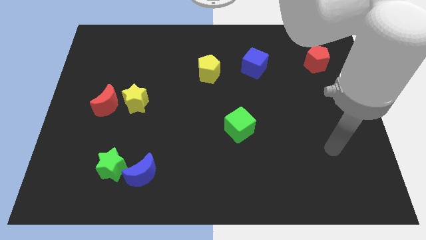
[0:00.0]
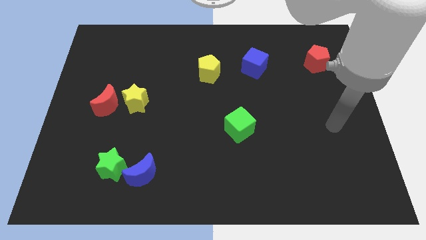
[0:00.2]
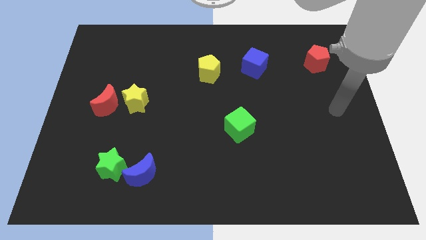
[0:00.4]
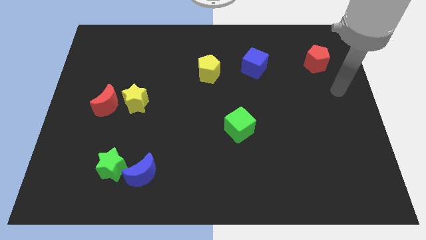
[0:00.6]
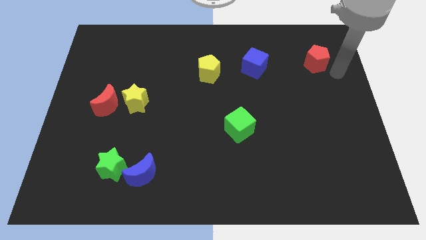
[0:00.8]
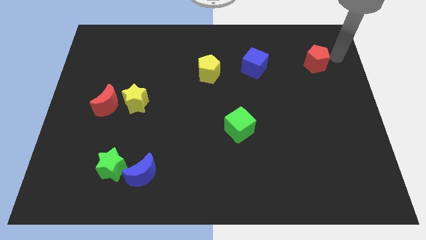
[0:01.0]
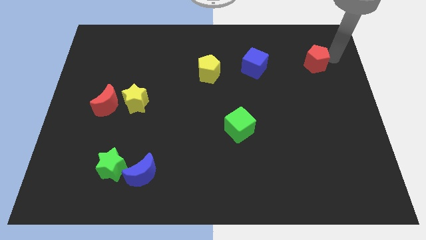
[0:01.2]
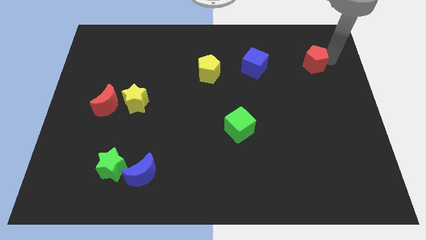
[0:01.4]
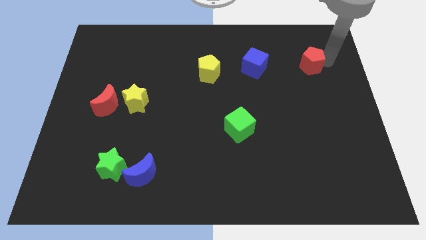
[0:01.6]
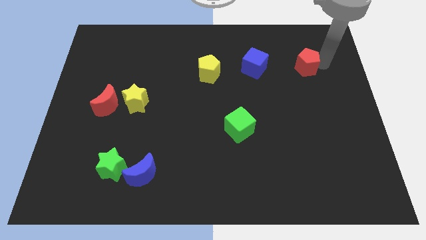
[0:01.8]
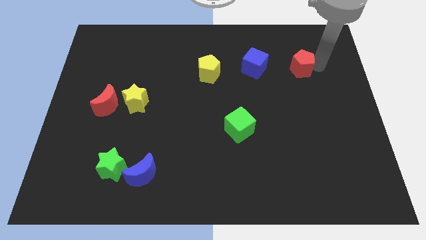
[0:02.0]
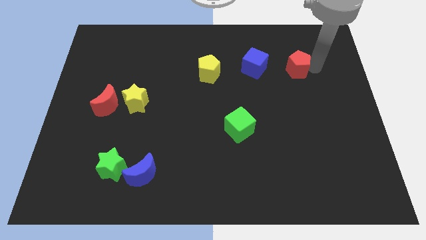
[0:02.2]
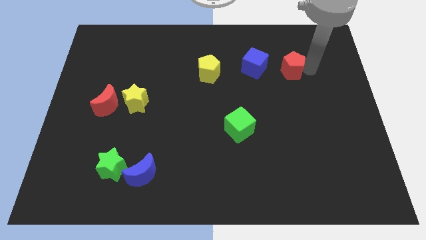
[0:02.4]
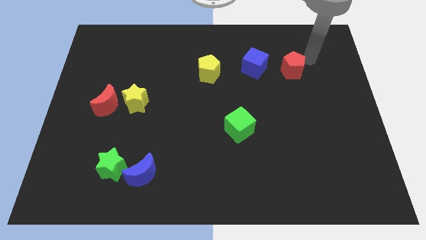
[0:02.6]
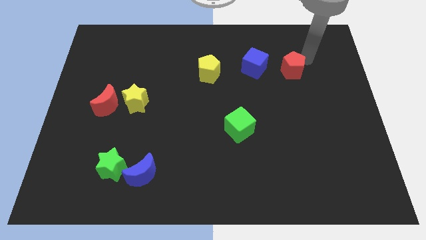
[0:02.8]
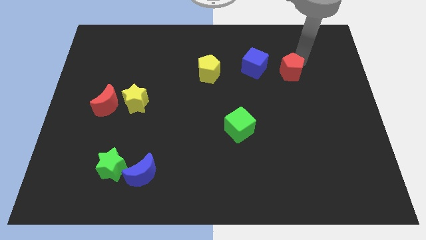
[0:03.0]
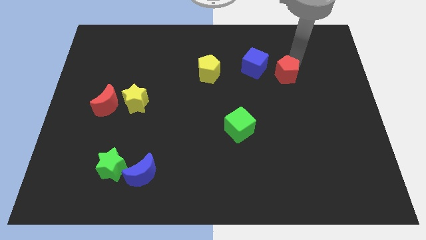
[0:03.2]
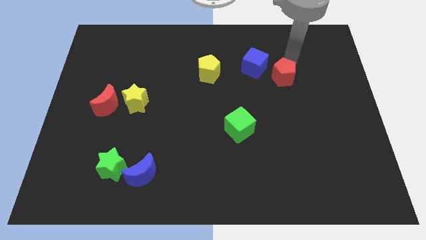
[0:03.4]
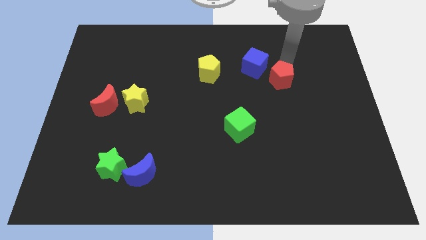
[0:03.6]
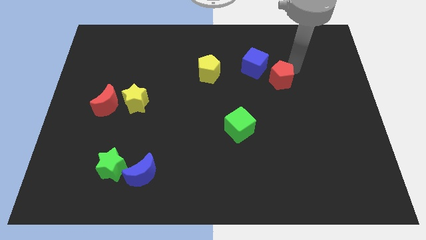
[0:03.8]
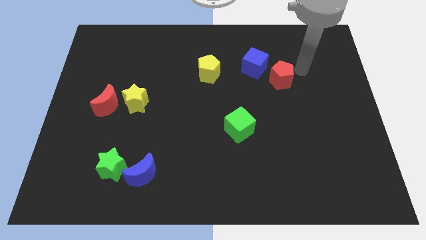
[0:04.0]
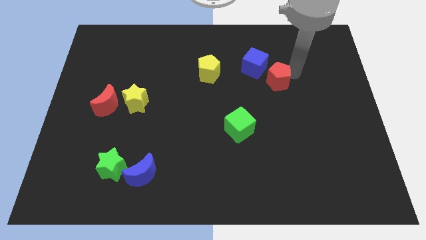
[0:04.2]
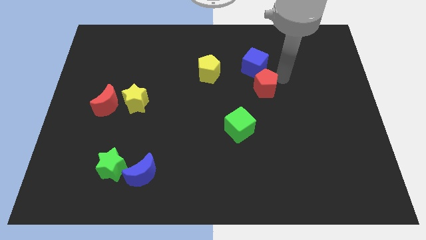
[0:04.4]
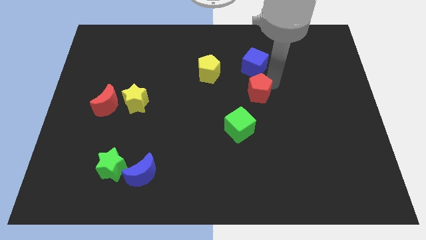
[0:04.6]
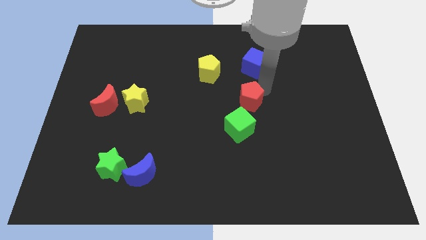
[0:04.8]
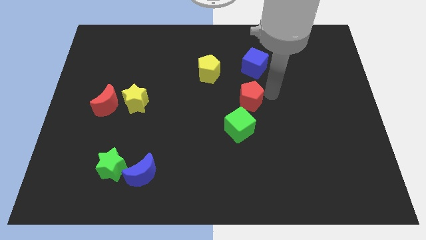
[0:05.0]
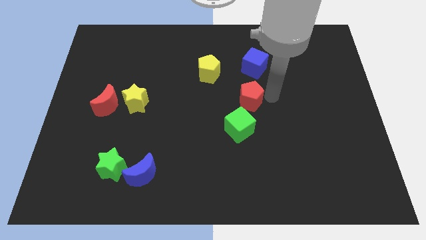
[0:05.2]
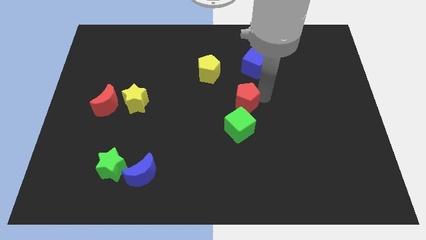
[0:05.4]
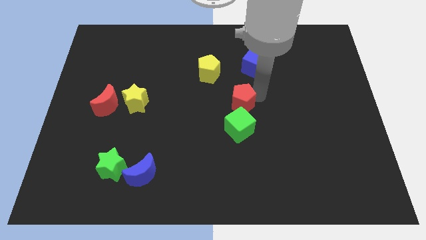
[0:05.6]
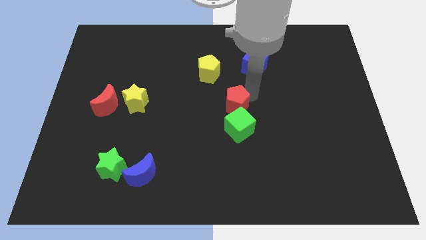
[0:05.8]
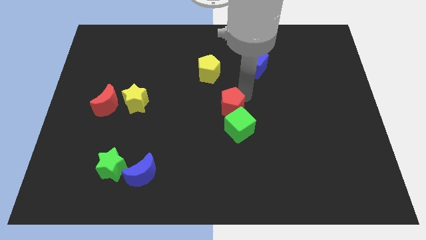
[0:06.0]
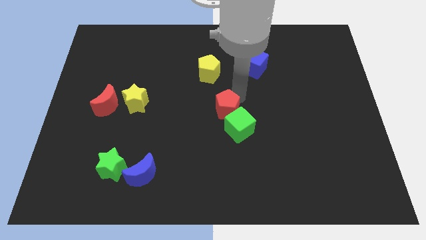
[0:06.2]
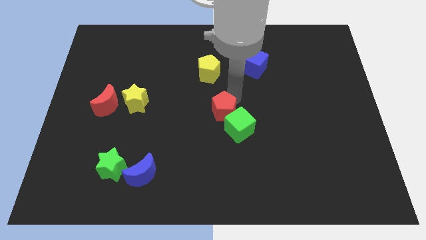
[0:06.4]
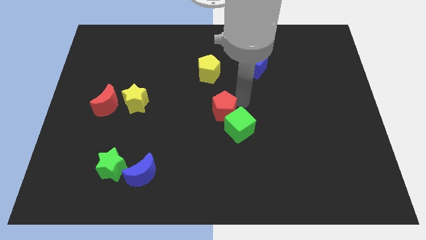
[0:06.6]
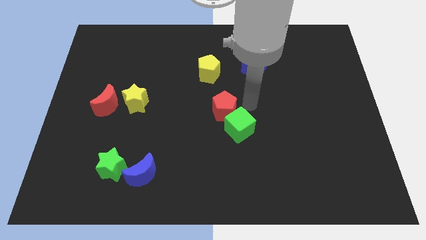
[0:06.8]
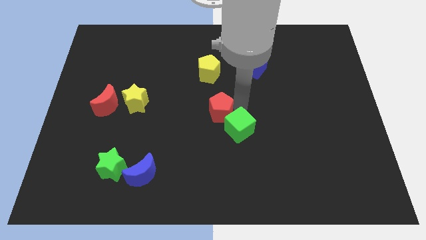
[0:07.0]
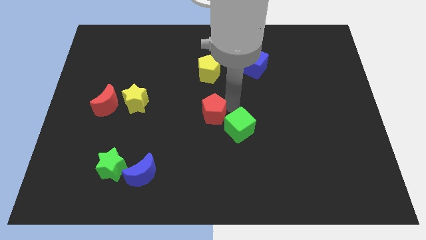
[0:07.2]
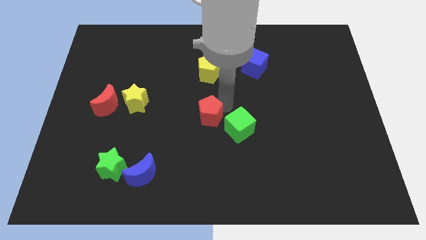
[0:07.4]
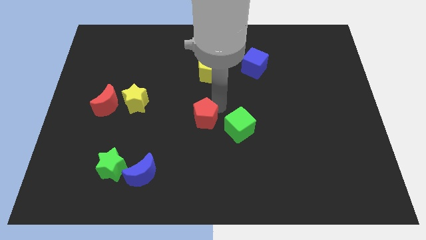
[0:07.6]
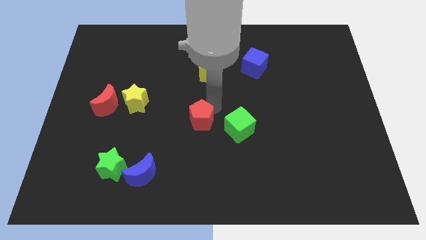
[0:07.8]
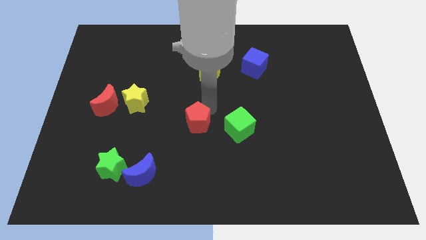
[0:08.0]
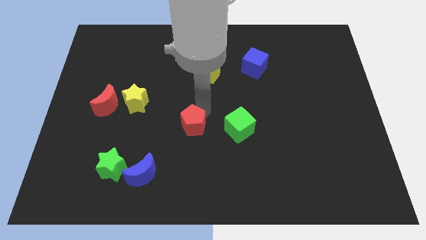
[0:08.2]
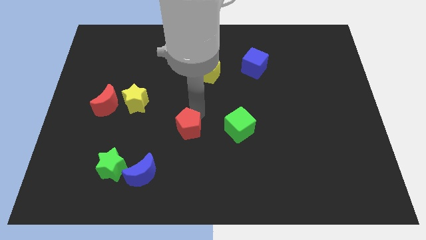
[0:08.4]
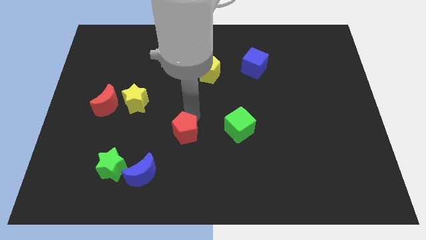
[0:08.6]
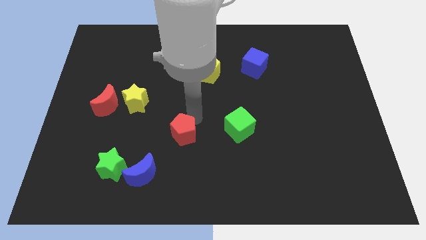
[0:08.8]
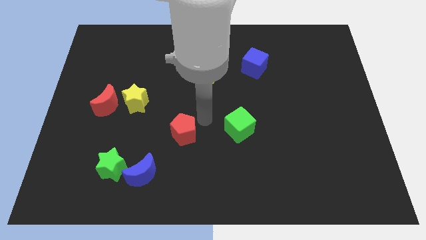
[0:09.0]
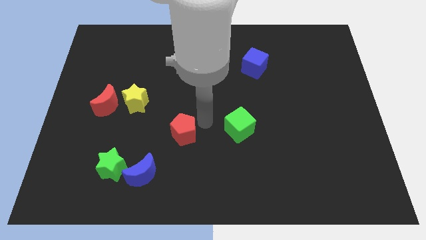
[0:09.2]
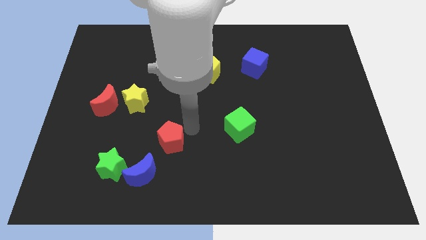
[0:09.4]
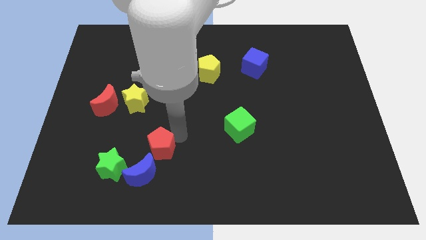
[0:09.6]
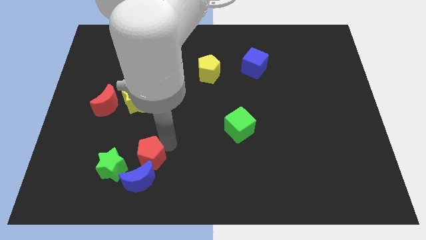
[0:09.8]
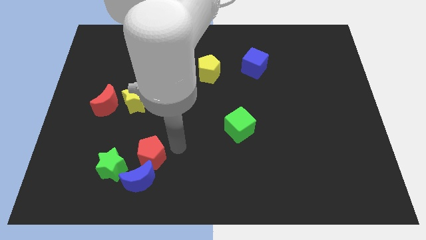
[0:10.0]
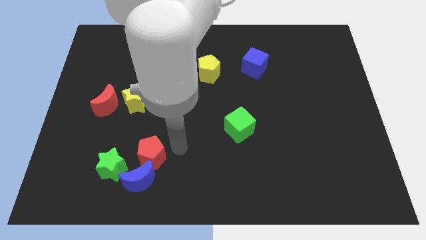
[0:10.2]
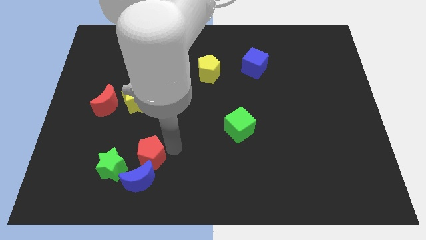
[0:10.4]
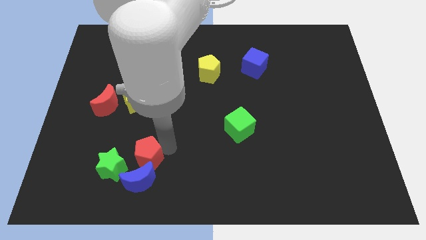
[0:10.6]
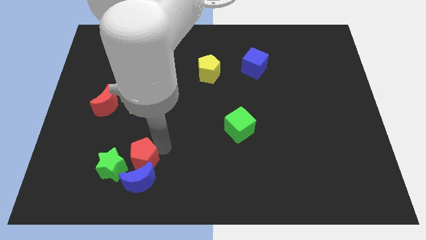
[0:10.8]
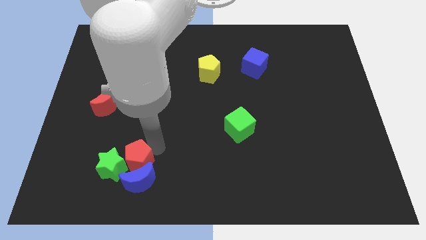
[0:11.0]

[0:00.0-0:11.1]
push the red pentagon close to the green star

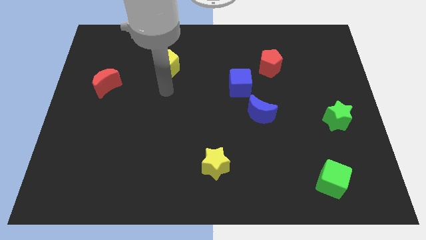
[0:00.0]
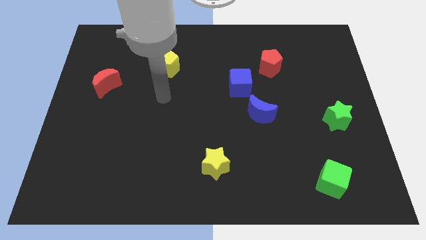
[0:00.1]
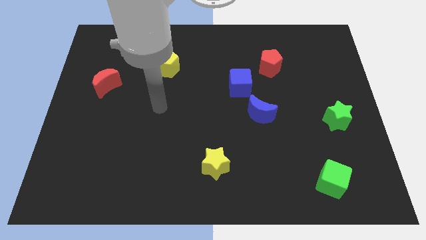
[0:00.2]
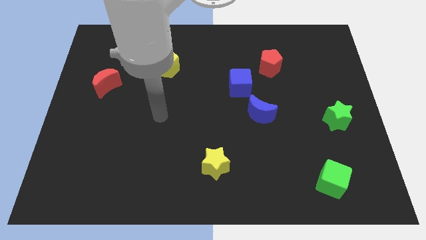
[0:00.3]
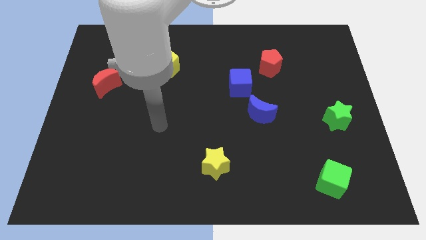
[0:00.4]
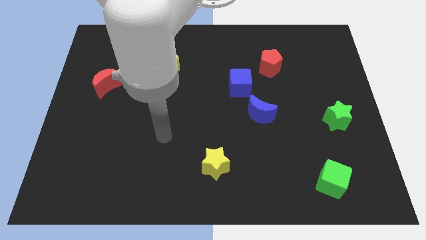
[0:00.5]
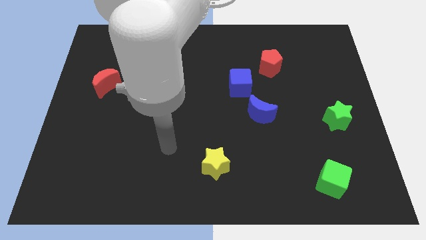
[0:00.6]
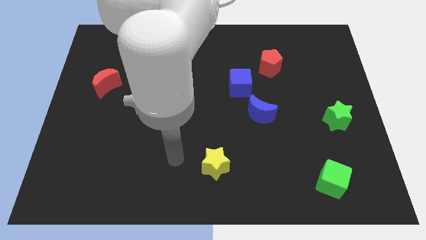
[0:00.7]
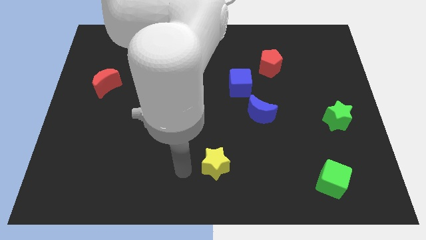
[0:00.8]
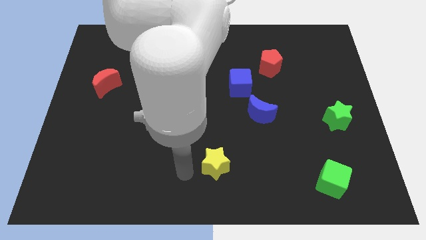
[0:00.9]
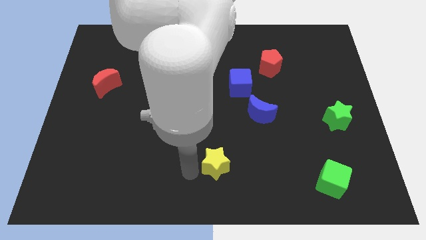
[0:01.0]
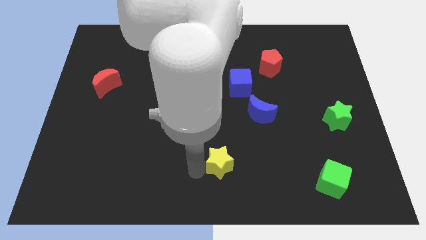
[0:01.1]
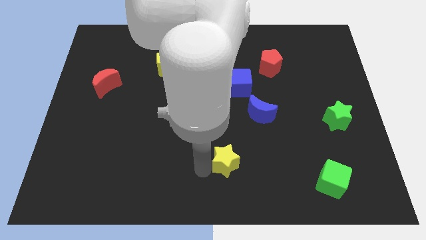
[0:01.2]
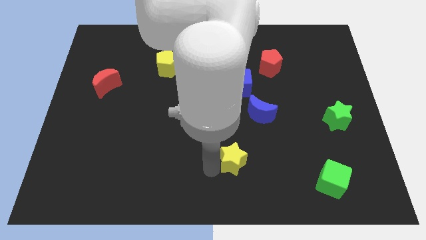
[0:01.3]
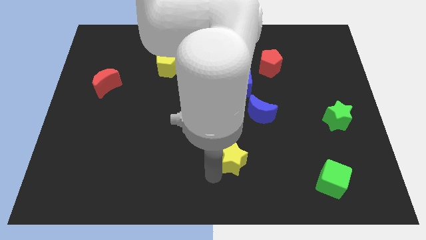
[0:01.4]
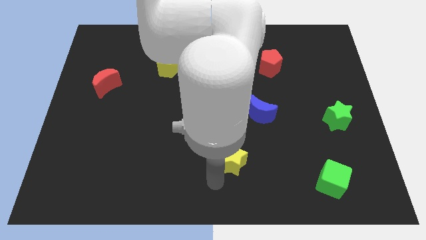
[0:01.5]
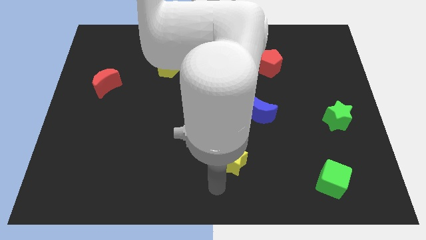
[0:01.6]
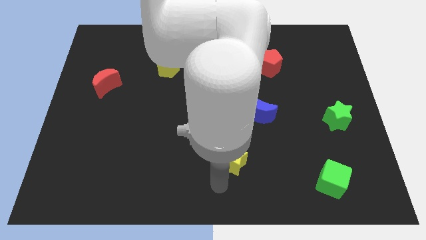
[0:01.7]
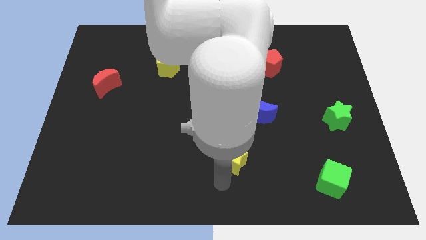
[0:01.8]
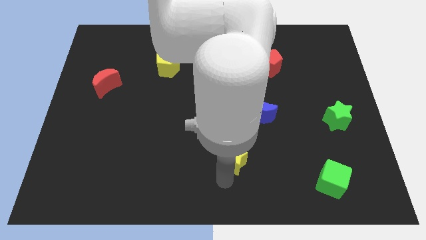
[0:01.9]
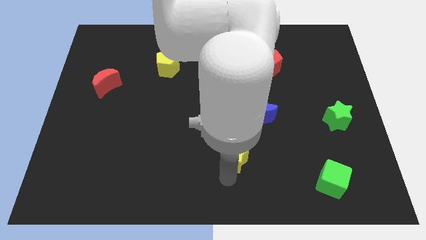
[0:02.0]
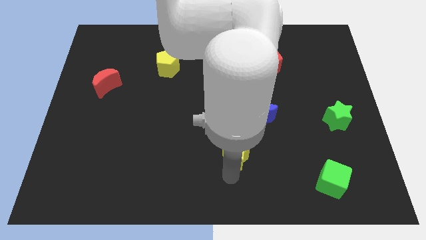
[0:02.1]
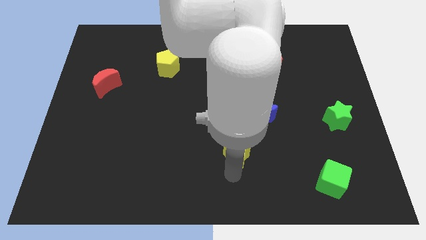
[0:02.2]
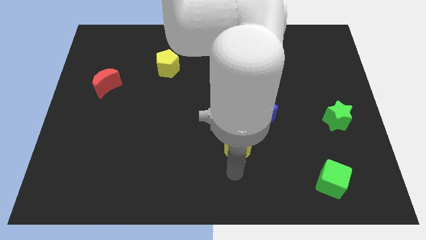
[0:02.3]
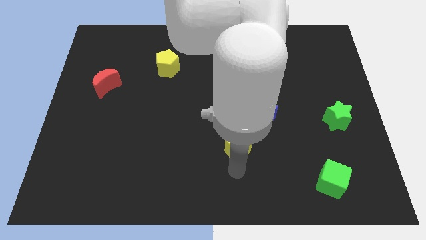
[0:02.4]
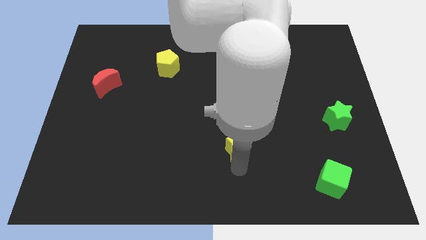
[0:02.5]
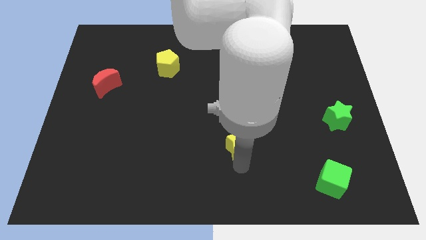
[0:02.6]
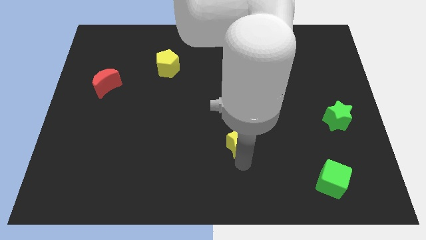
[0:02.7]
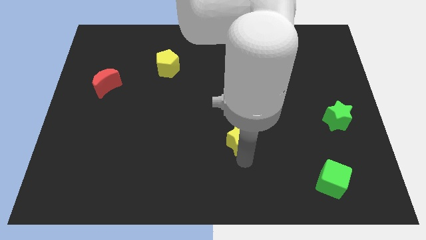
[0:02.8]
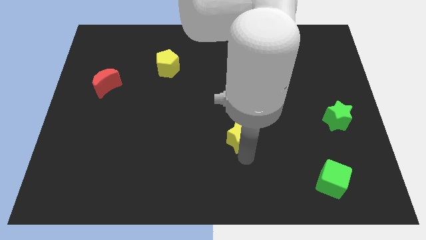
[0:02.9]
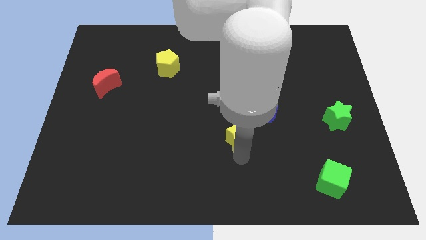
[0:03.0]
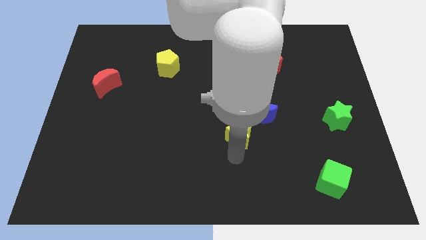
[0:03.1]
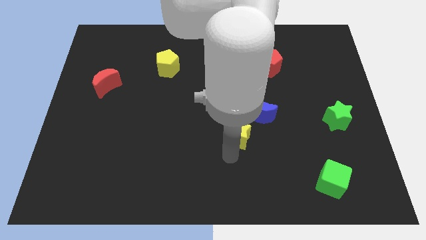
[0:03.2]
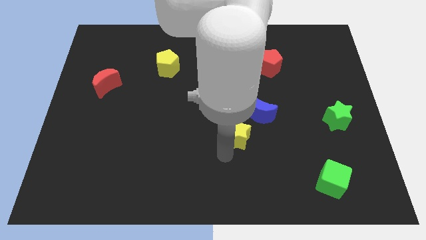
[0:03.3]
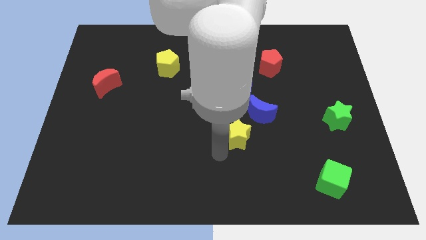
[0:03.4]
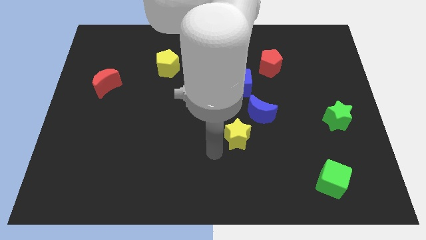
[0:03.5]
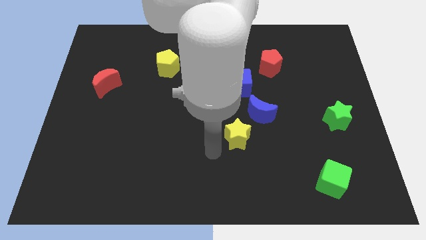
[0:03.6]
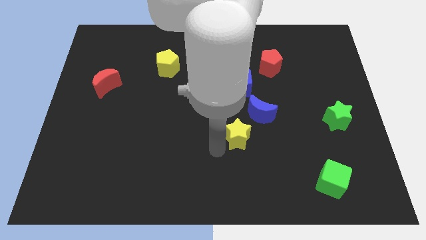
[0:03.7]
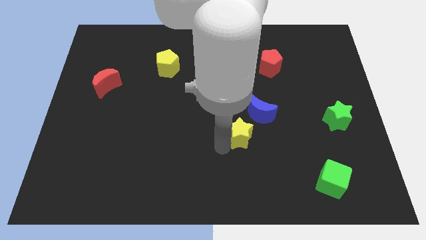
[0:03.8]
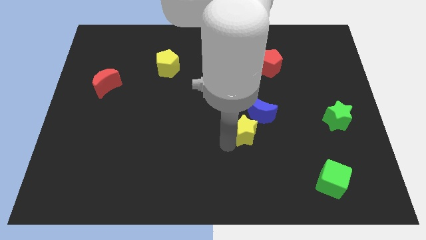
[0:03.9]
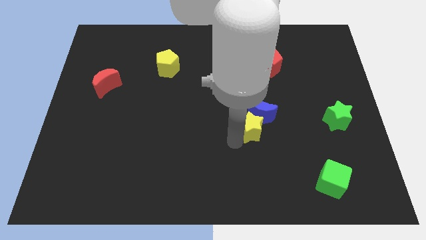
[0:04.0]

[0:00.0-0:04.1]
slide the yellow star towards the blue moon
